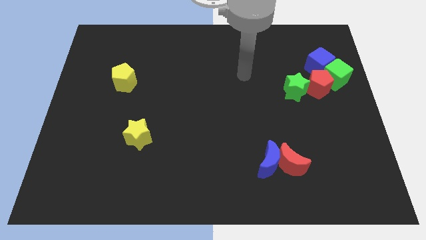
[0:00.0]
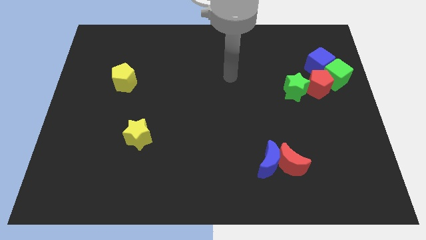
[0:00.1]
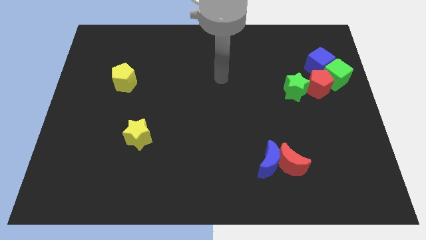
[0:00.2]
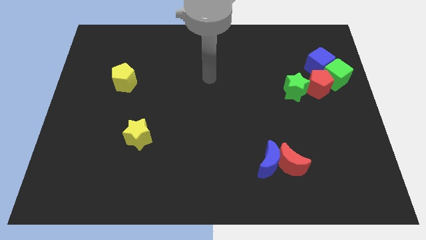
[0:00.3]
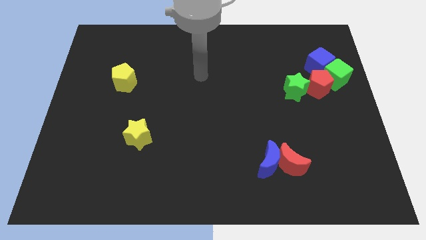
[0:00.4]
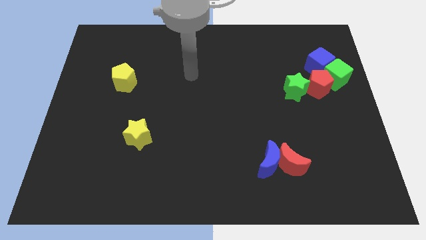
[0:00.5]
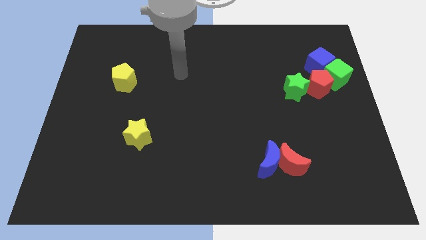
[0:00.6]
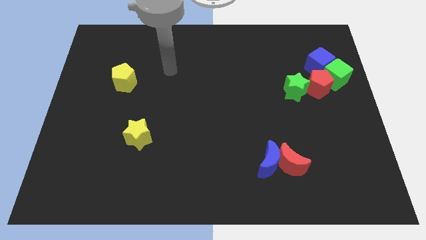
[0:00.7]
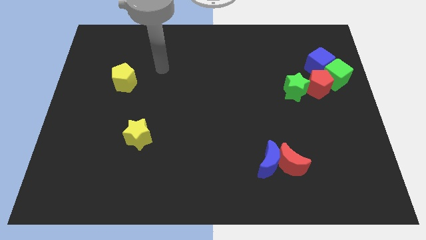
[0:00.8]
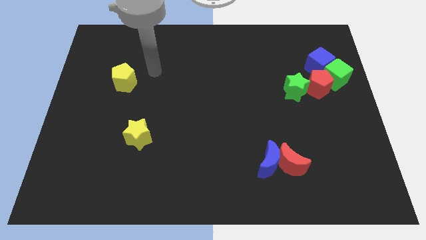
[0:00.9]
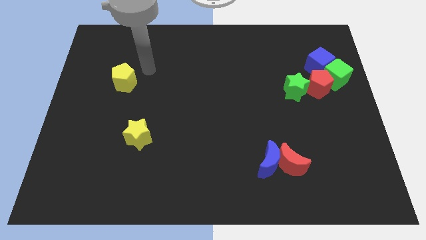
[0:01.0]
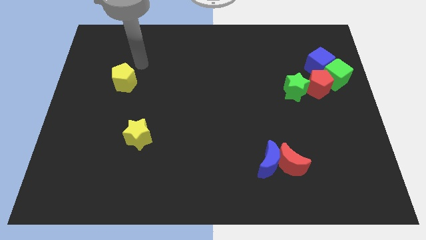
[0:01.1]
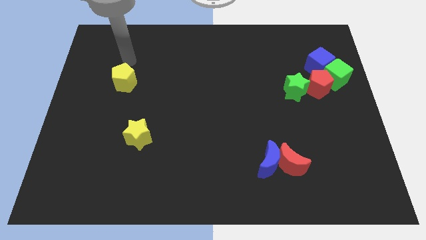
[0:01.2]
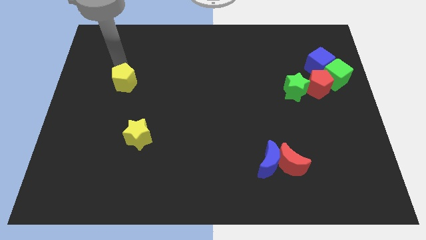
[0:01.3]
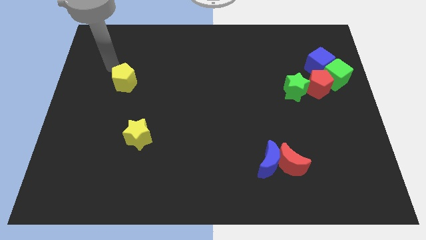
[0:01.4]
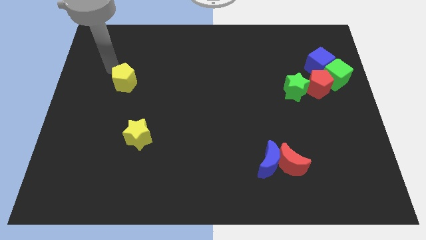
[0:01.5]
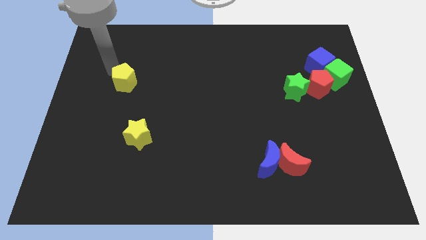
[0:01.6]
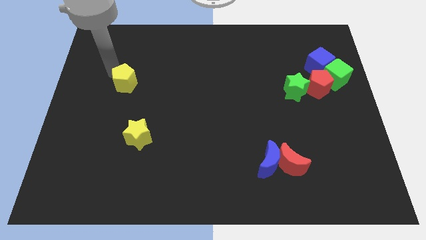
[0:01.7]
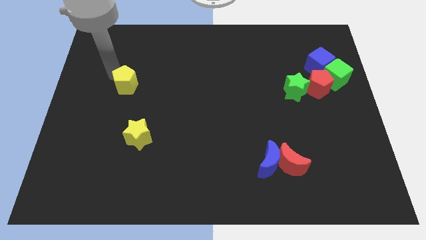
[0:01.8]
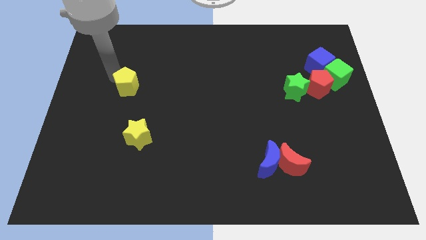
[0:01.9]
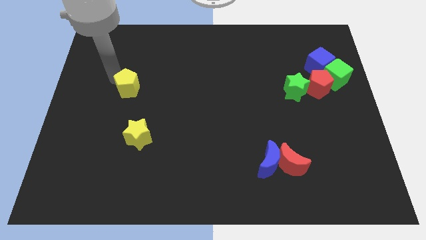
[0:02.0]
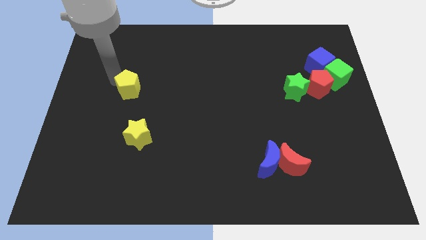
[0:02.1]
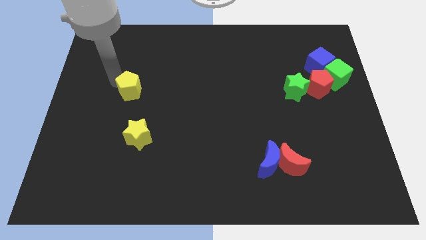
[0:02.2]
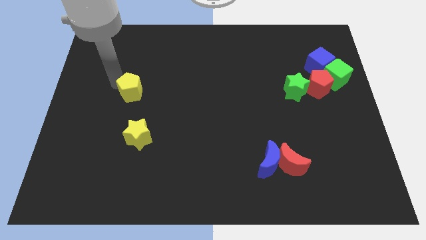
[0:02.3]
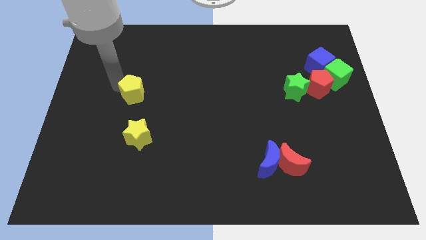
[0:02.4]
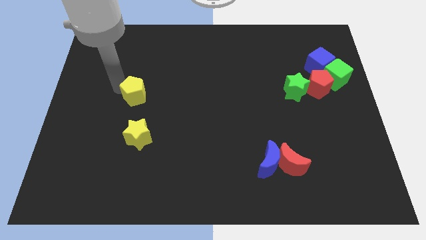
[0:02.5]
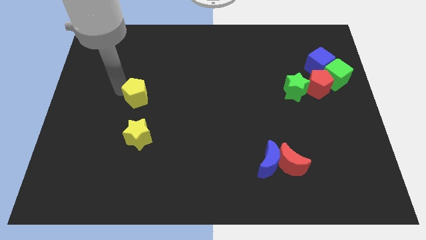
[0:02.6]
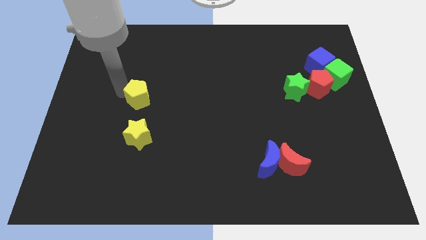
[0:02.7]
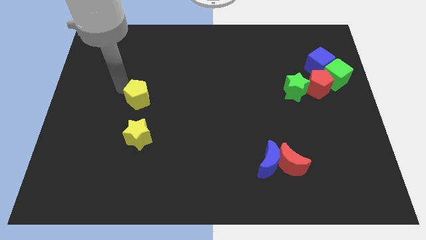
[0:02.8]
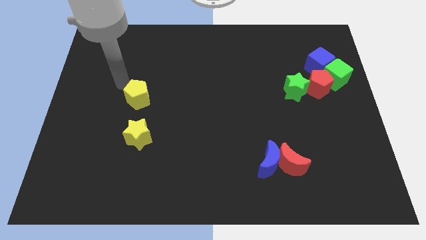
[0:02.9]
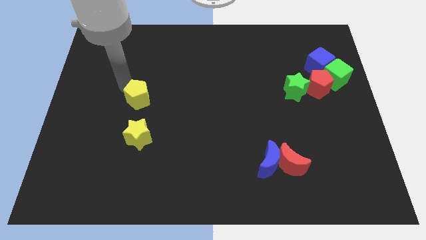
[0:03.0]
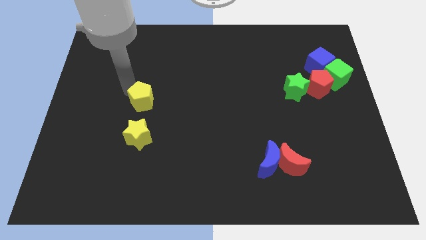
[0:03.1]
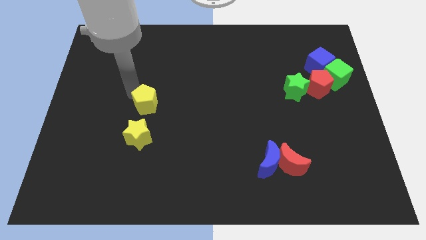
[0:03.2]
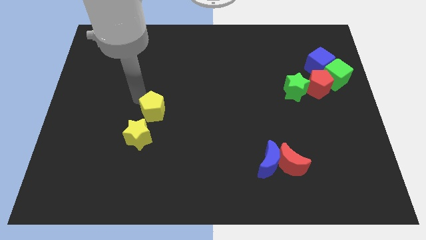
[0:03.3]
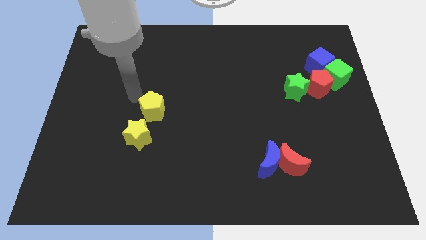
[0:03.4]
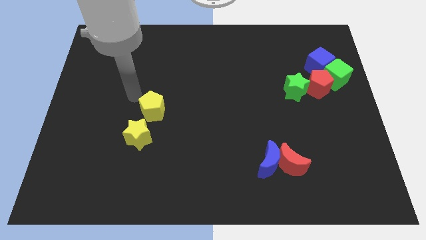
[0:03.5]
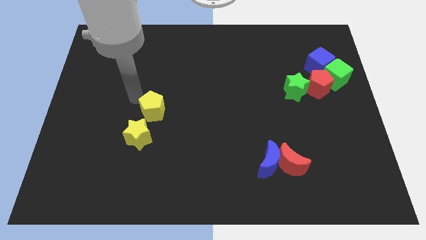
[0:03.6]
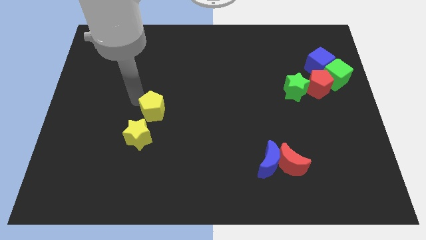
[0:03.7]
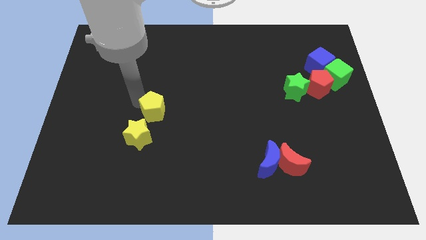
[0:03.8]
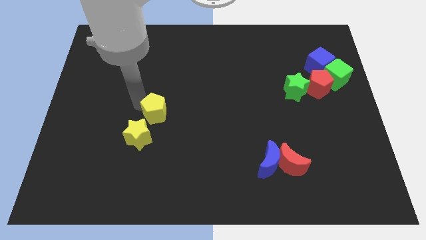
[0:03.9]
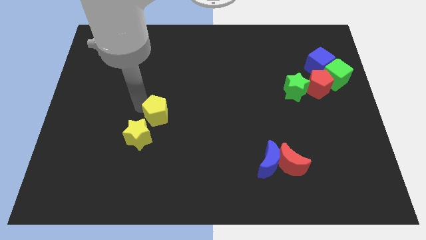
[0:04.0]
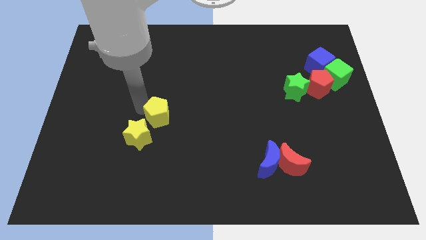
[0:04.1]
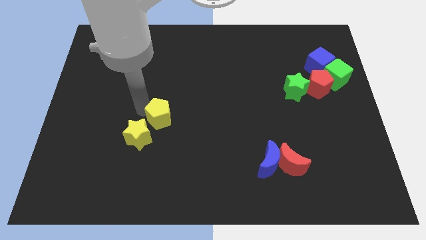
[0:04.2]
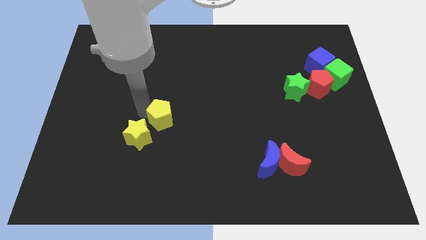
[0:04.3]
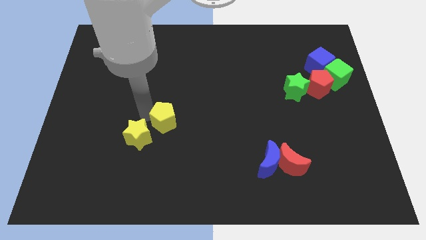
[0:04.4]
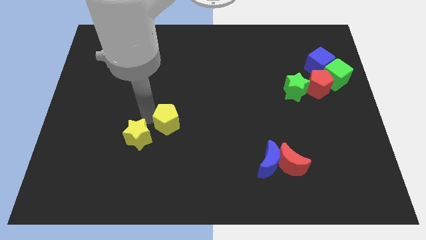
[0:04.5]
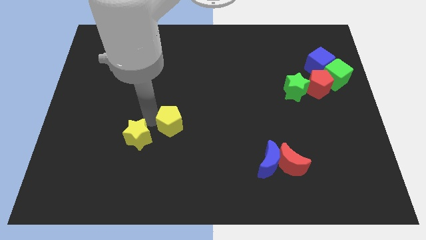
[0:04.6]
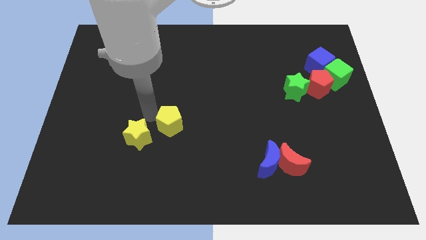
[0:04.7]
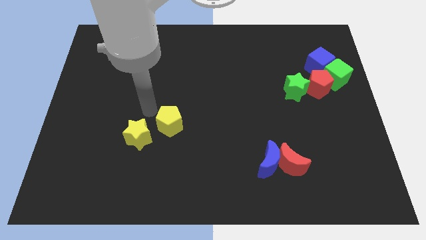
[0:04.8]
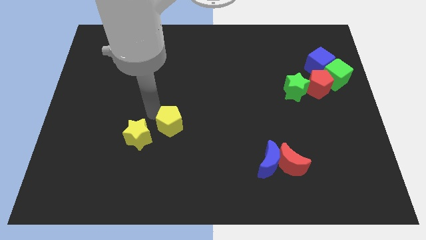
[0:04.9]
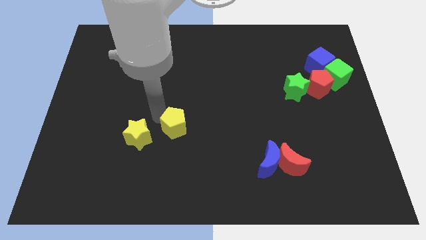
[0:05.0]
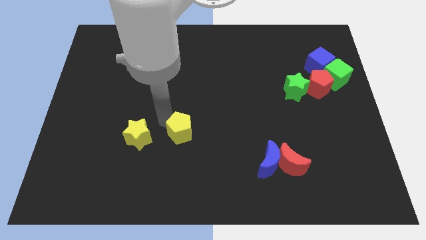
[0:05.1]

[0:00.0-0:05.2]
slide the yellow pentagon diagonally down and to the right

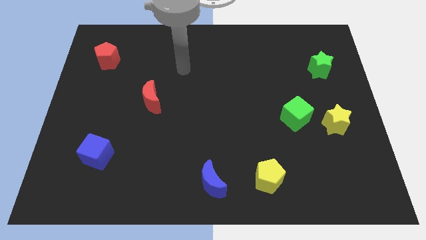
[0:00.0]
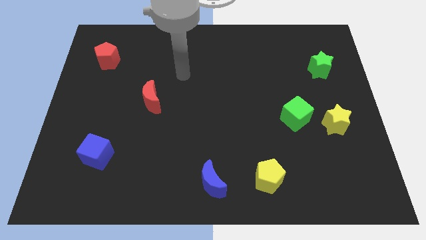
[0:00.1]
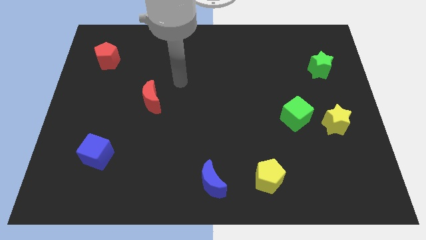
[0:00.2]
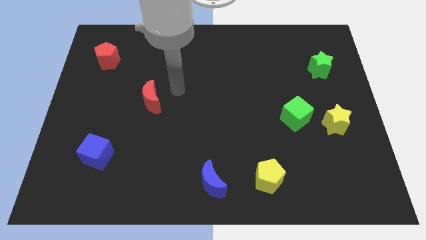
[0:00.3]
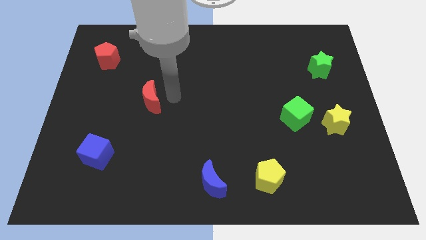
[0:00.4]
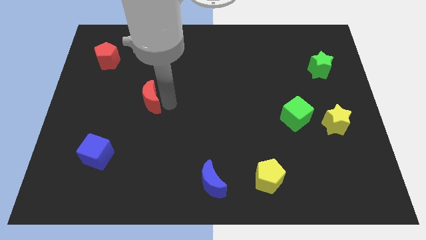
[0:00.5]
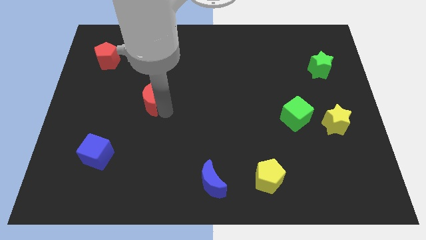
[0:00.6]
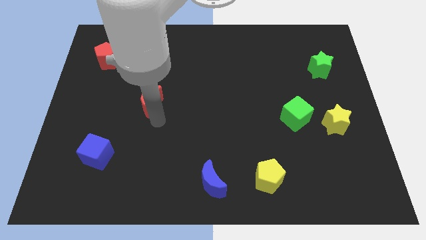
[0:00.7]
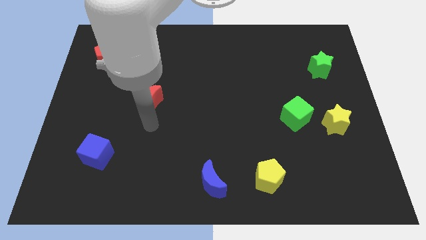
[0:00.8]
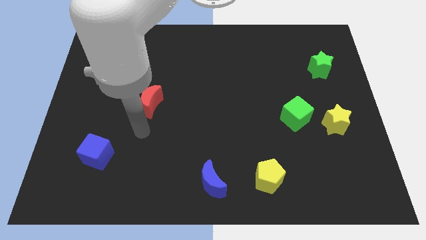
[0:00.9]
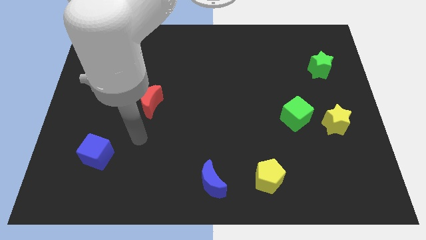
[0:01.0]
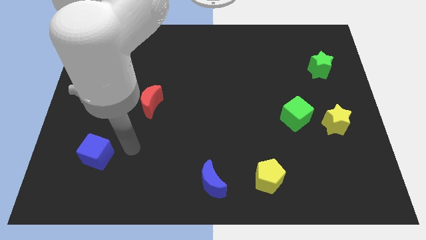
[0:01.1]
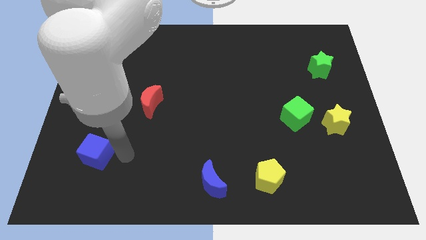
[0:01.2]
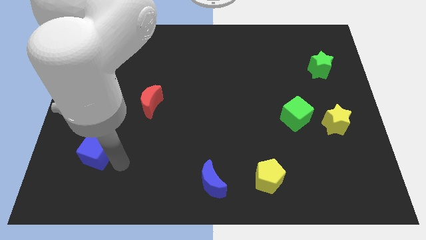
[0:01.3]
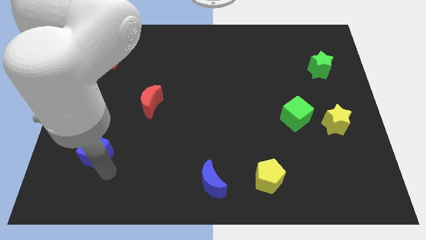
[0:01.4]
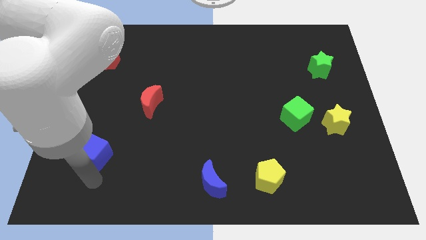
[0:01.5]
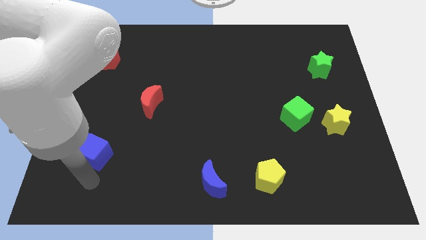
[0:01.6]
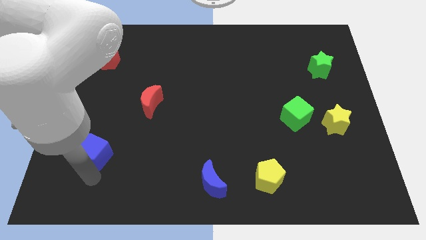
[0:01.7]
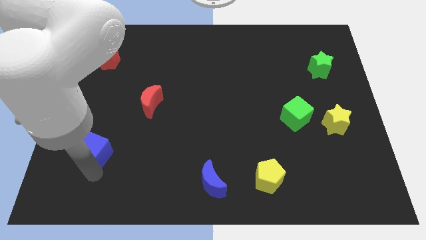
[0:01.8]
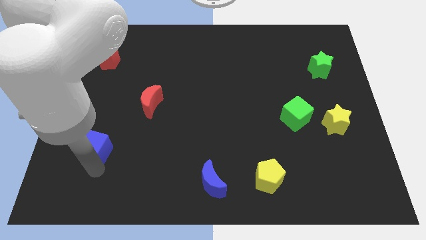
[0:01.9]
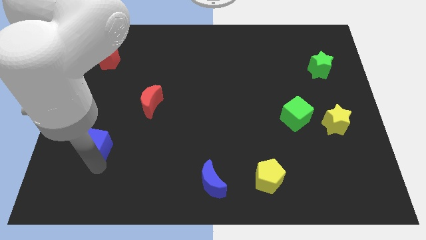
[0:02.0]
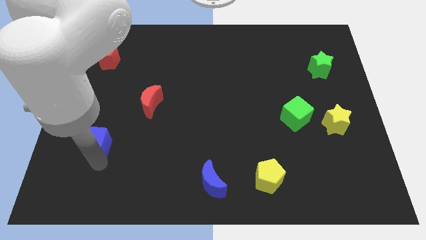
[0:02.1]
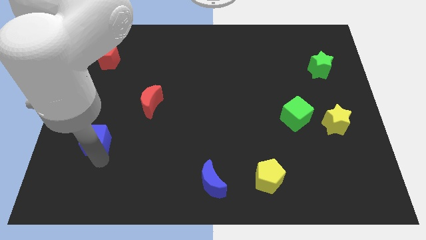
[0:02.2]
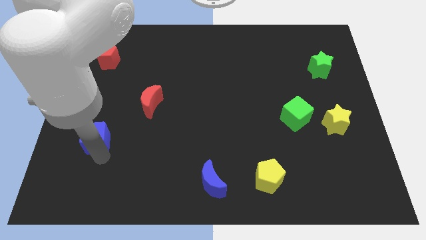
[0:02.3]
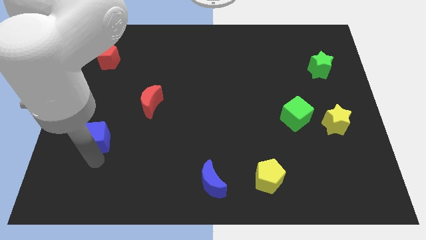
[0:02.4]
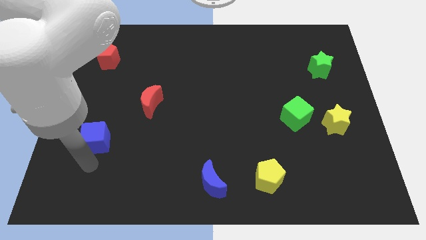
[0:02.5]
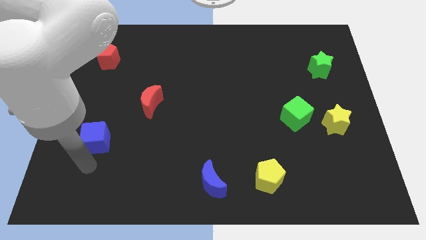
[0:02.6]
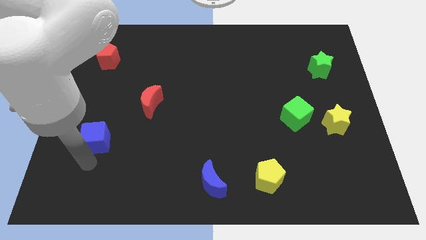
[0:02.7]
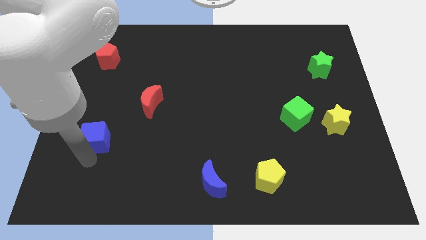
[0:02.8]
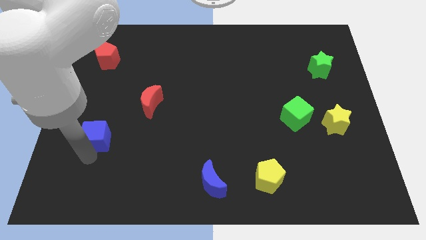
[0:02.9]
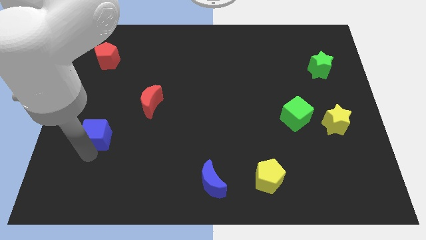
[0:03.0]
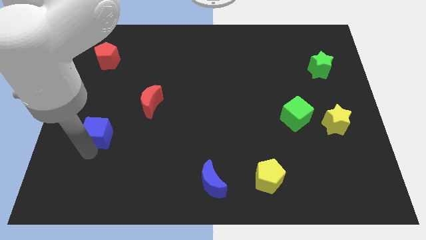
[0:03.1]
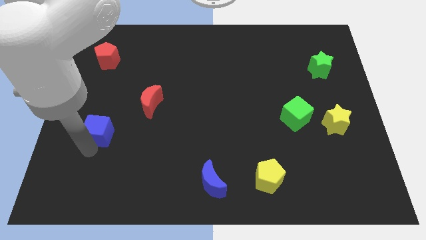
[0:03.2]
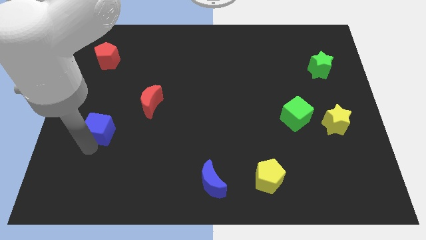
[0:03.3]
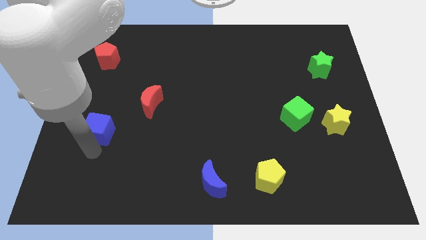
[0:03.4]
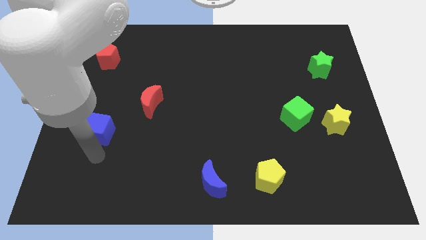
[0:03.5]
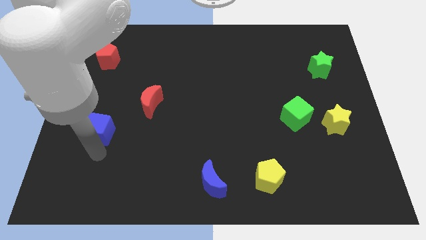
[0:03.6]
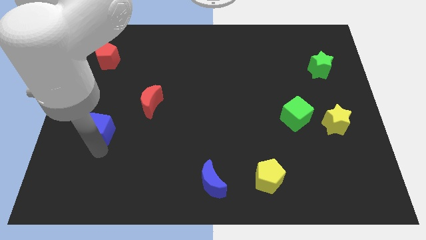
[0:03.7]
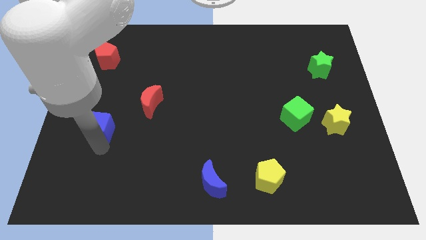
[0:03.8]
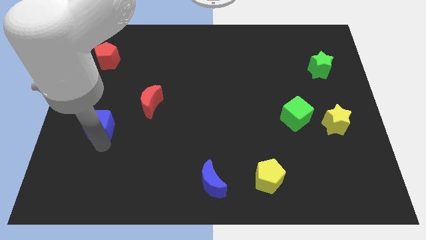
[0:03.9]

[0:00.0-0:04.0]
slightly move the blue cube up
